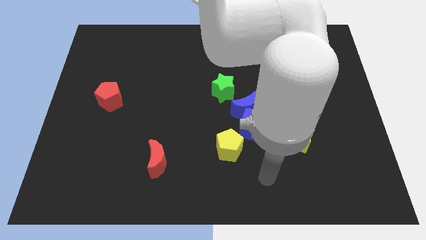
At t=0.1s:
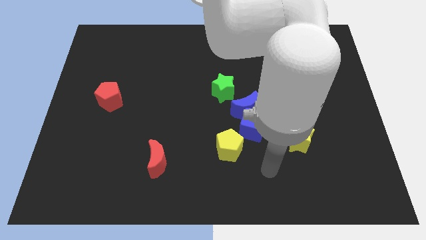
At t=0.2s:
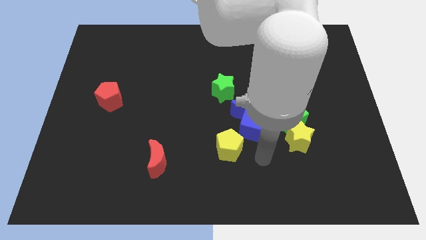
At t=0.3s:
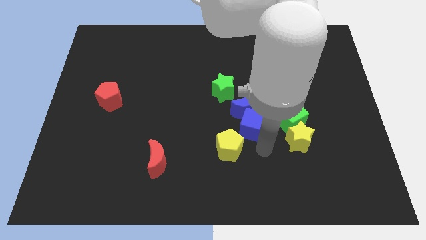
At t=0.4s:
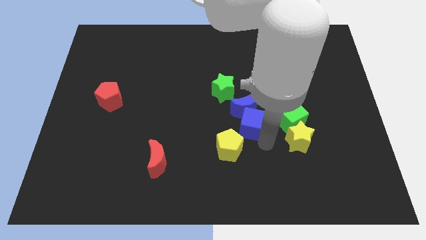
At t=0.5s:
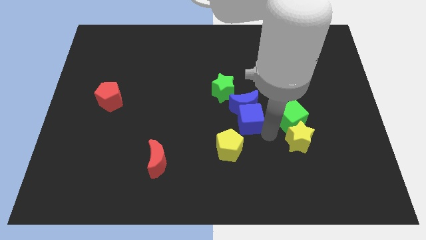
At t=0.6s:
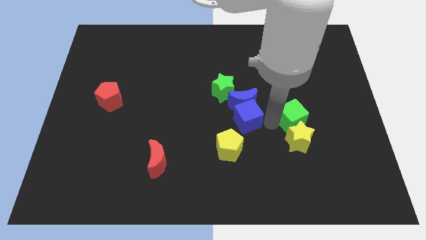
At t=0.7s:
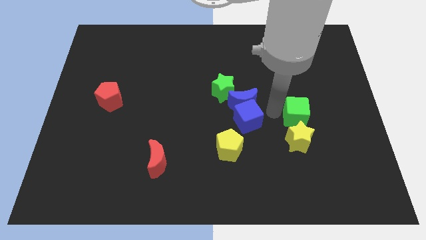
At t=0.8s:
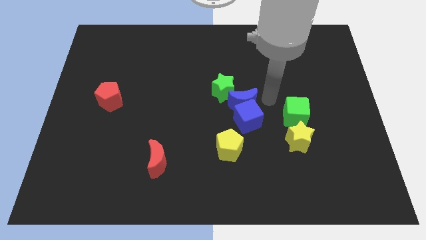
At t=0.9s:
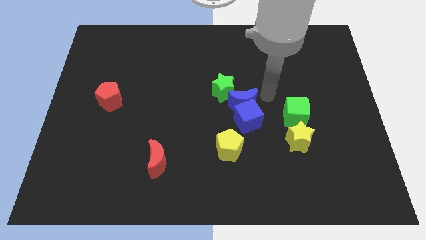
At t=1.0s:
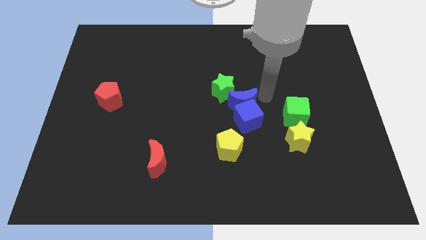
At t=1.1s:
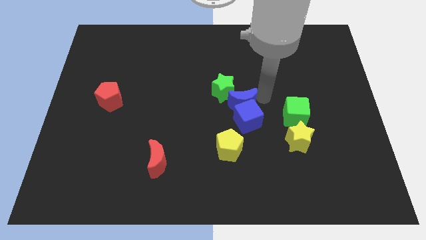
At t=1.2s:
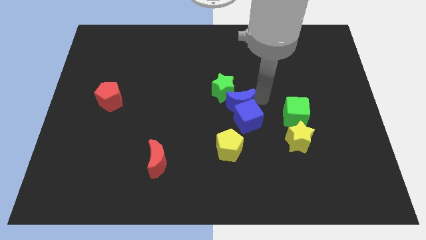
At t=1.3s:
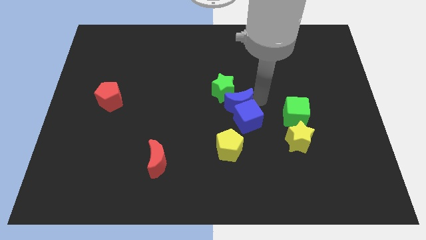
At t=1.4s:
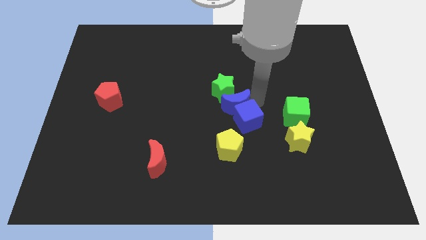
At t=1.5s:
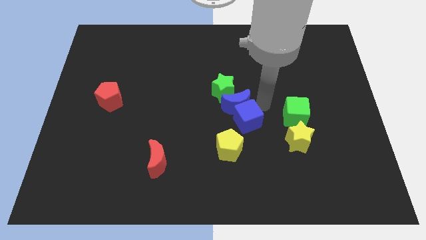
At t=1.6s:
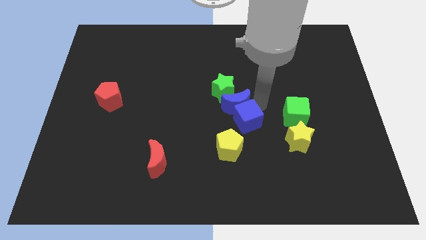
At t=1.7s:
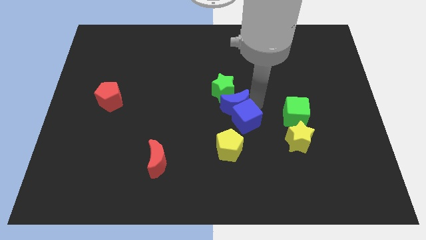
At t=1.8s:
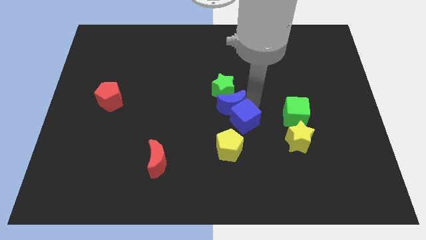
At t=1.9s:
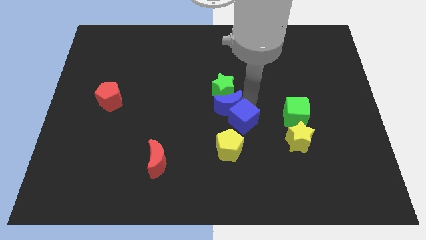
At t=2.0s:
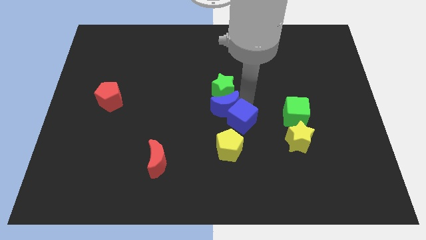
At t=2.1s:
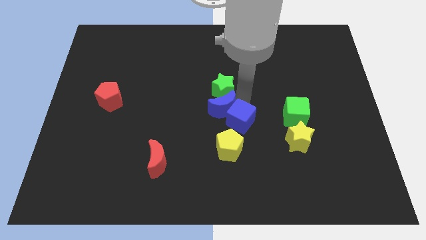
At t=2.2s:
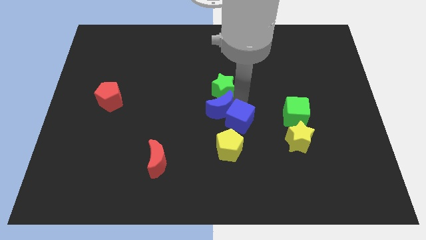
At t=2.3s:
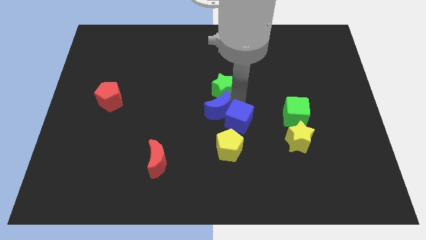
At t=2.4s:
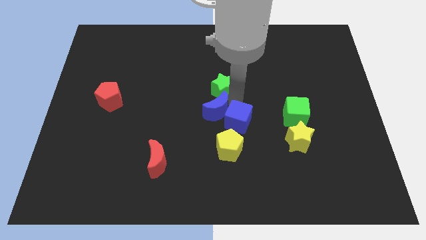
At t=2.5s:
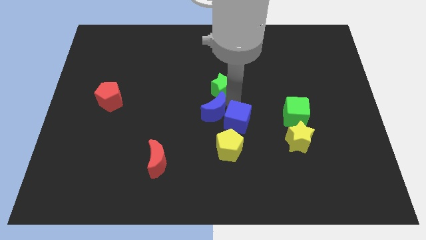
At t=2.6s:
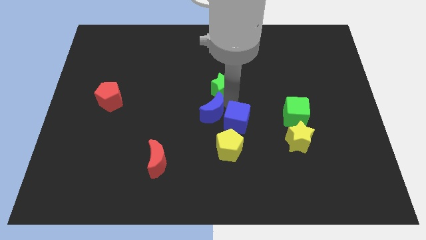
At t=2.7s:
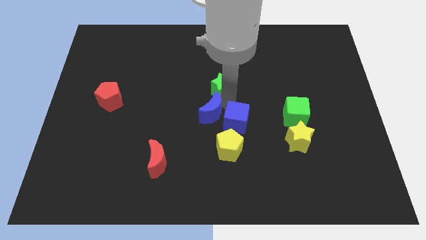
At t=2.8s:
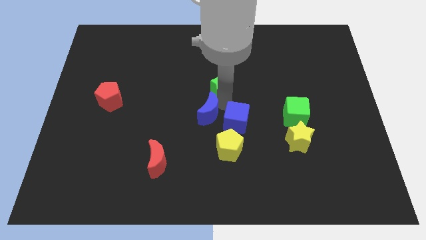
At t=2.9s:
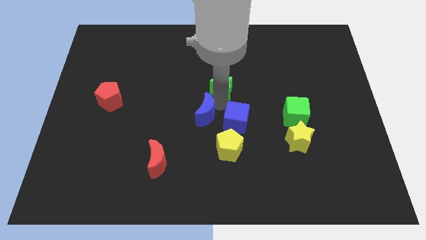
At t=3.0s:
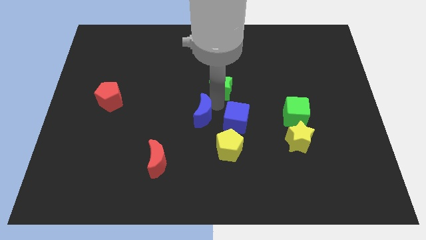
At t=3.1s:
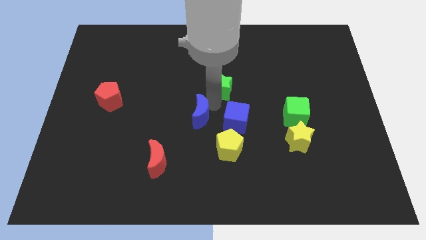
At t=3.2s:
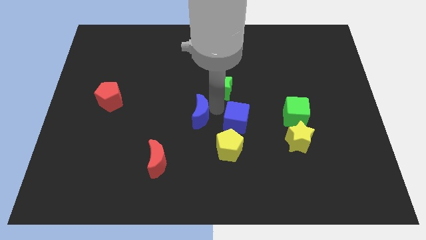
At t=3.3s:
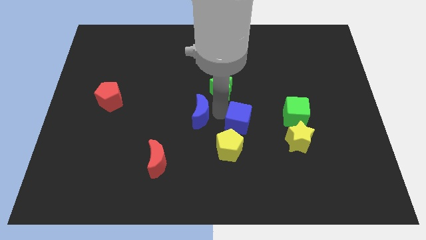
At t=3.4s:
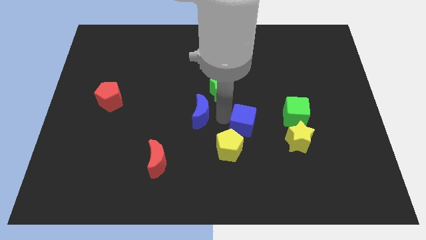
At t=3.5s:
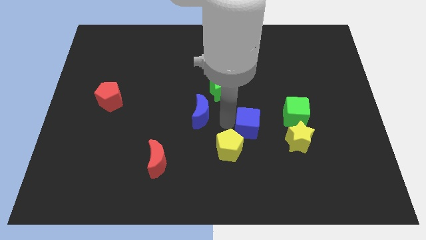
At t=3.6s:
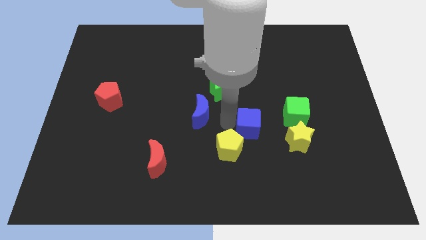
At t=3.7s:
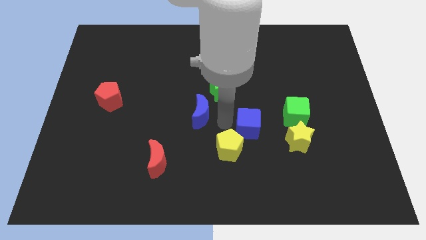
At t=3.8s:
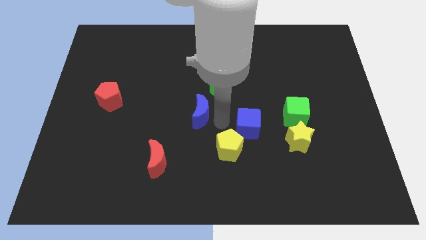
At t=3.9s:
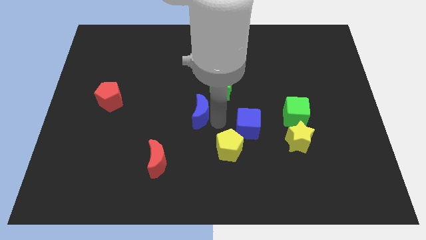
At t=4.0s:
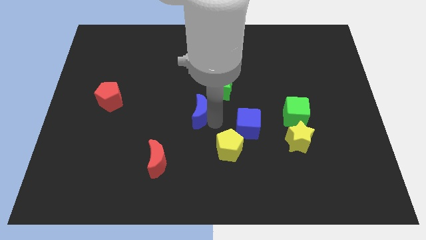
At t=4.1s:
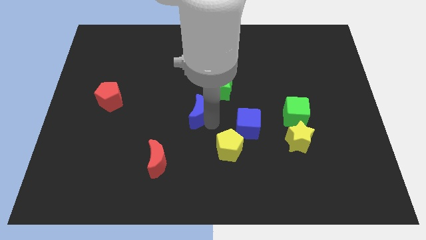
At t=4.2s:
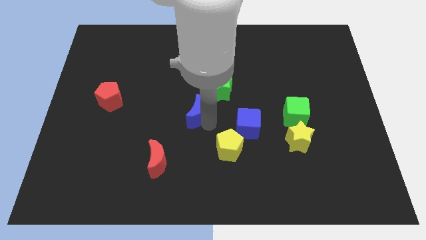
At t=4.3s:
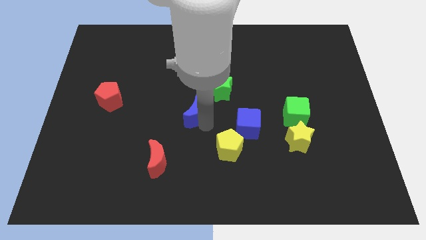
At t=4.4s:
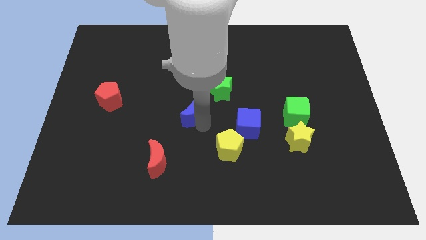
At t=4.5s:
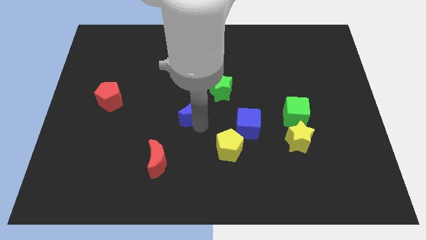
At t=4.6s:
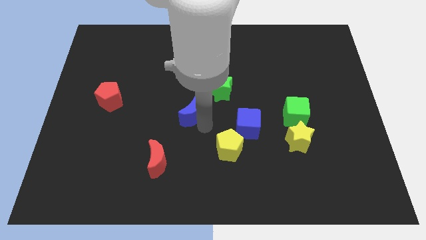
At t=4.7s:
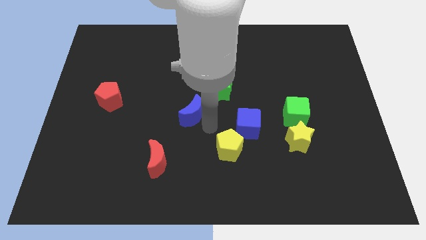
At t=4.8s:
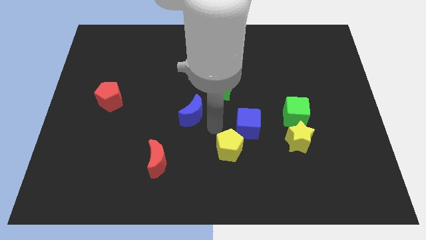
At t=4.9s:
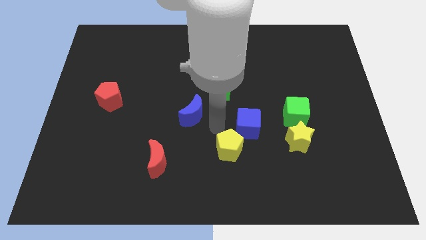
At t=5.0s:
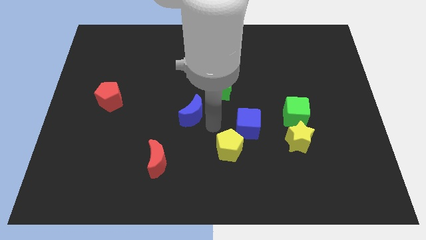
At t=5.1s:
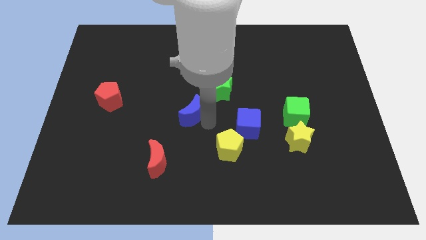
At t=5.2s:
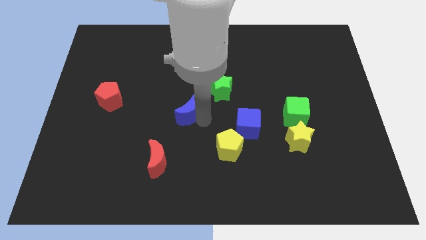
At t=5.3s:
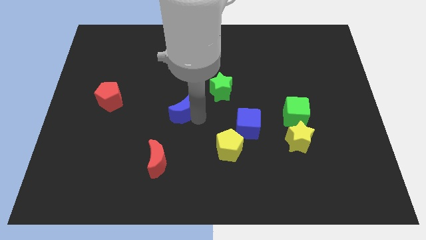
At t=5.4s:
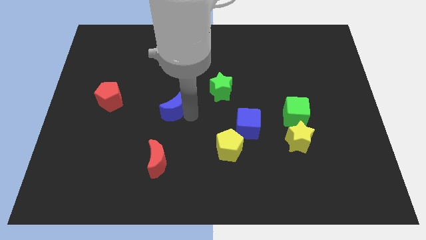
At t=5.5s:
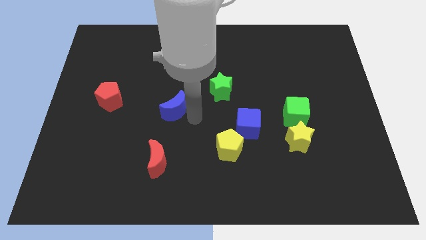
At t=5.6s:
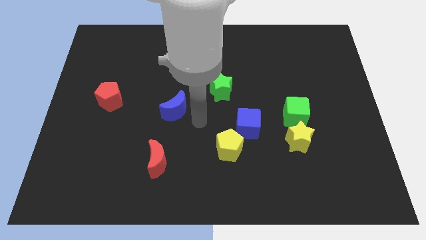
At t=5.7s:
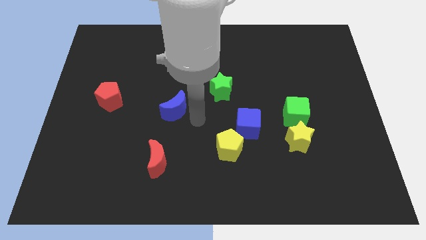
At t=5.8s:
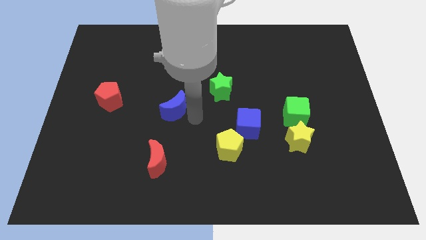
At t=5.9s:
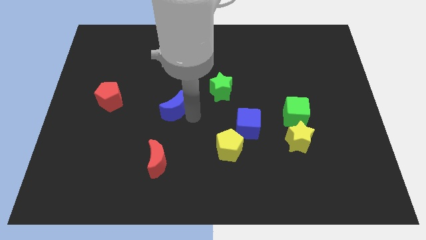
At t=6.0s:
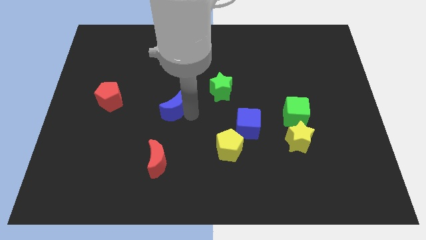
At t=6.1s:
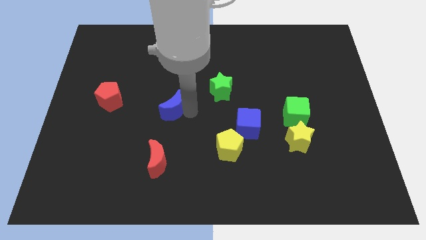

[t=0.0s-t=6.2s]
move the blue moon right of the red pentagon
